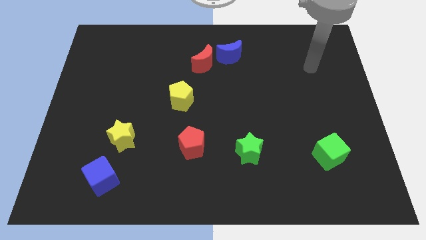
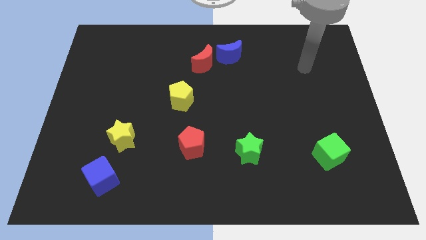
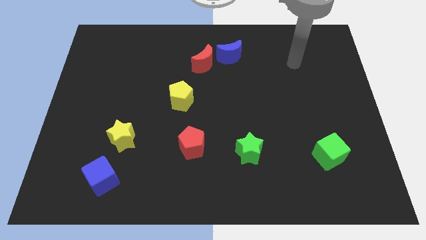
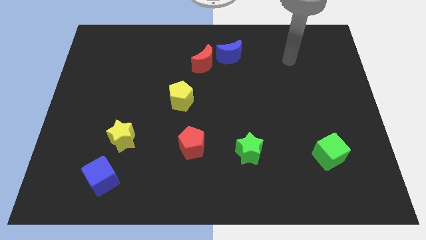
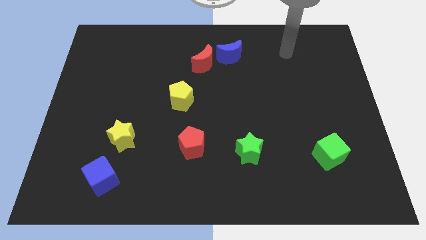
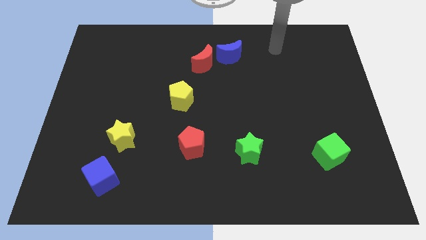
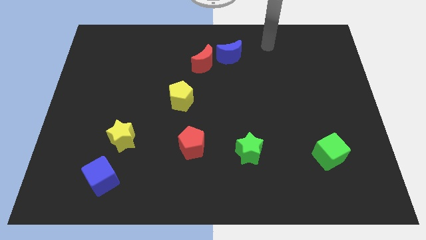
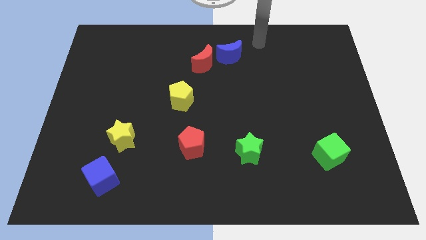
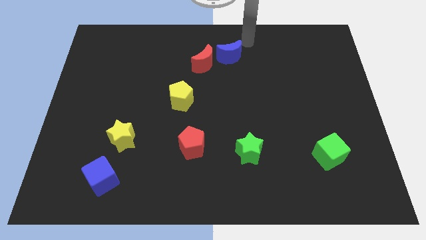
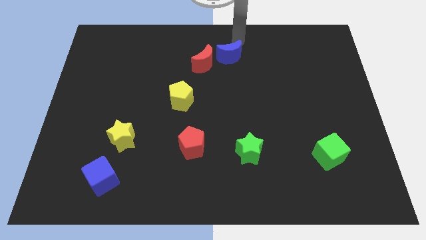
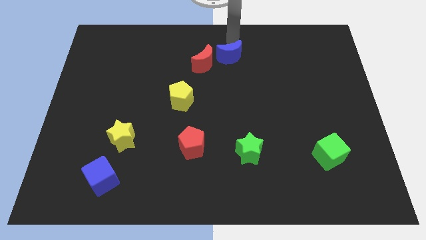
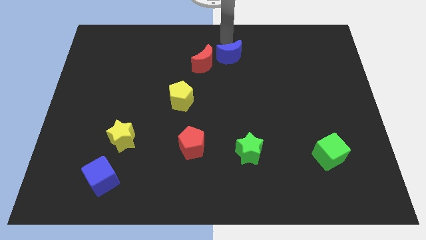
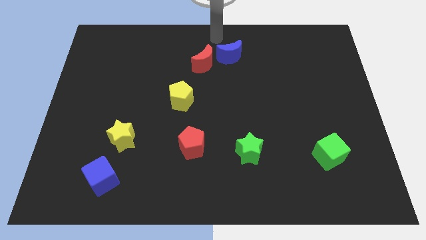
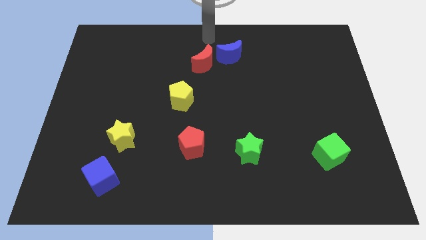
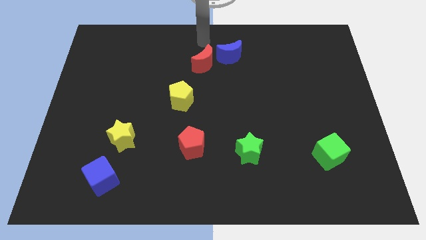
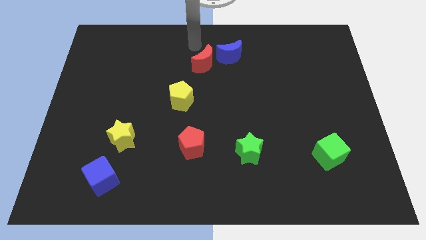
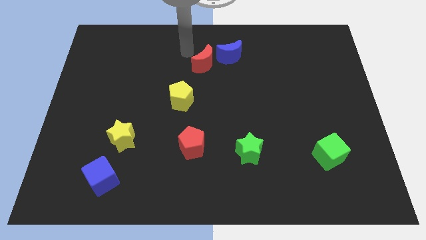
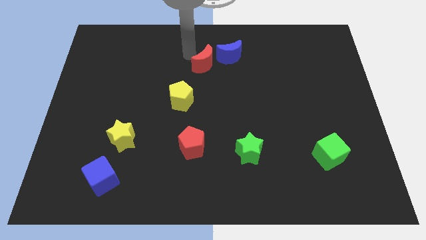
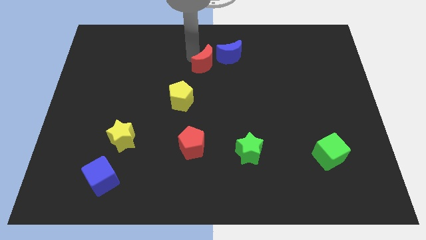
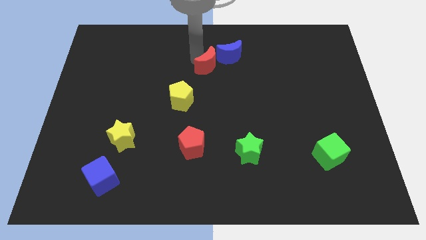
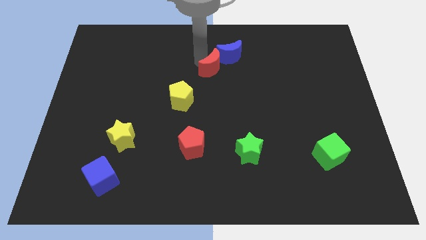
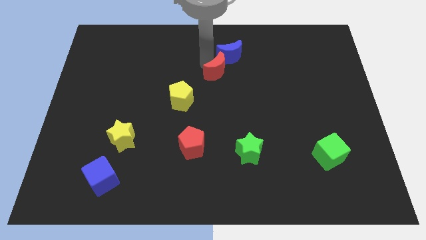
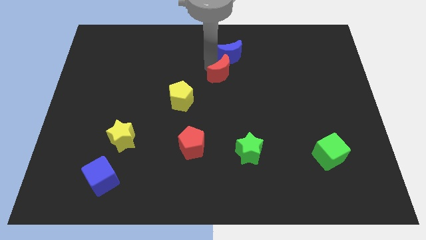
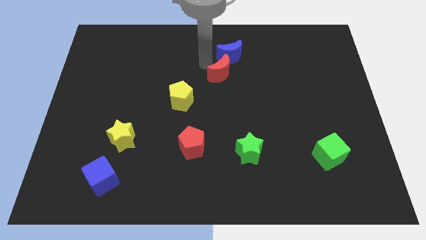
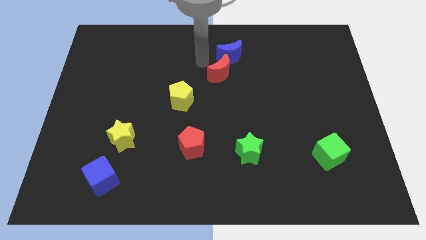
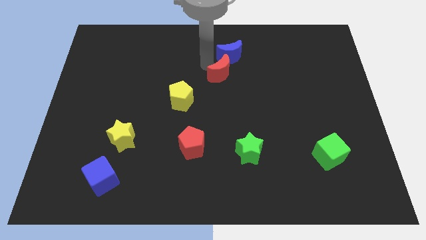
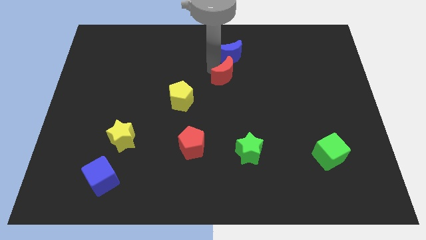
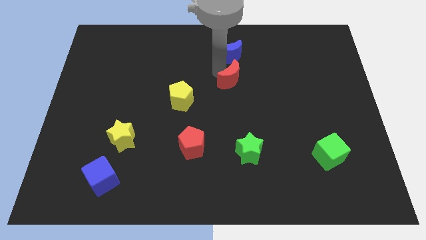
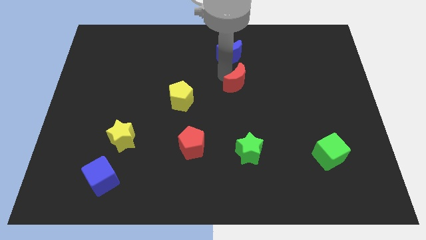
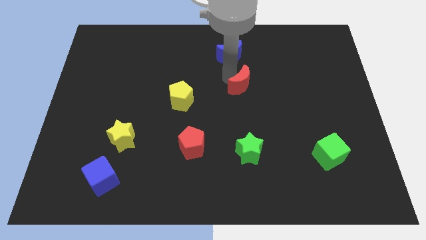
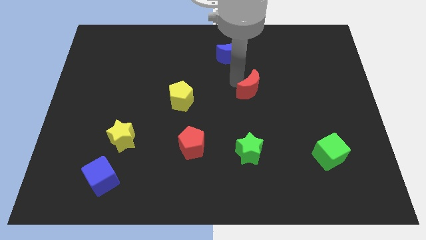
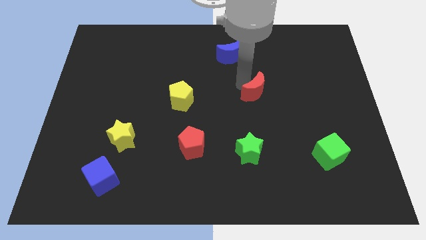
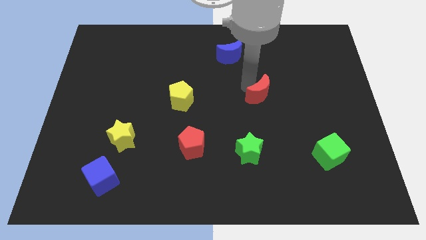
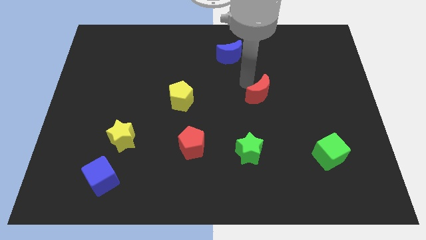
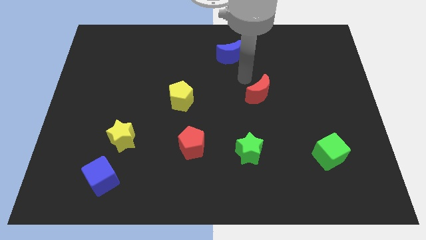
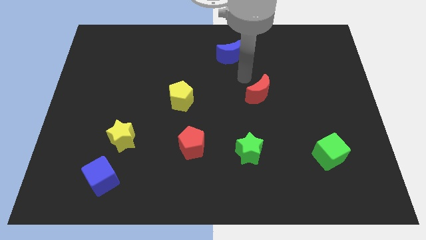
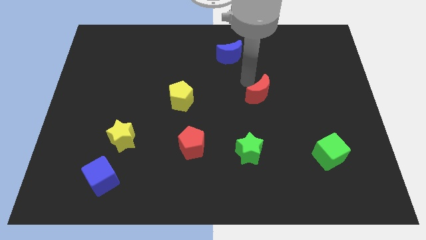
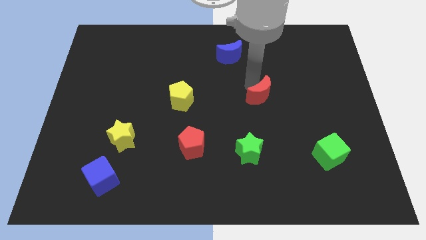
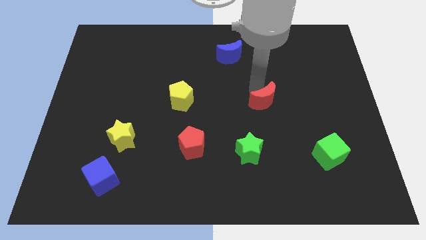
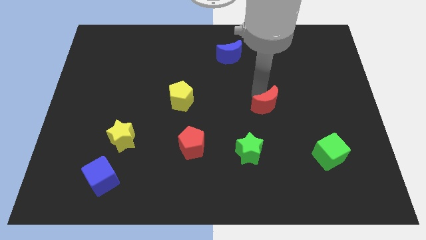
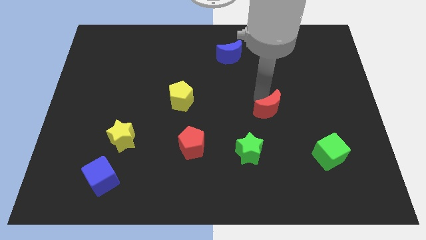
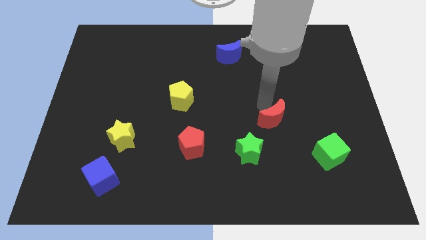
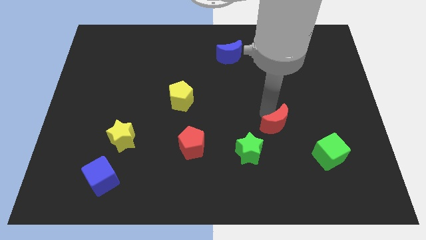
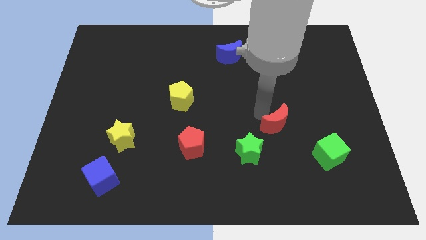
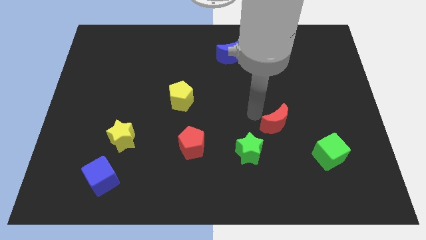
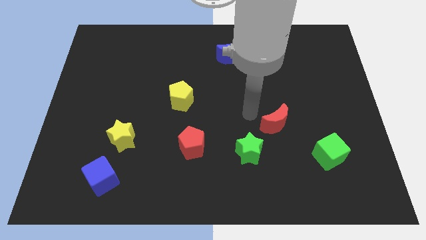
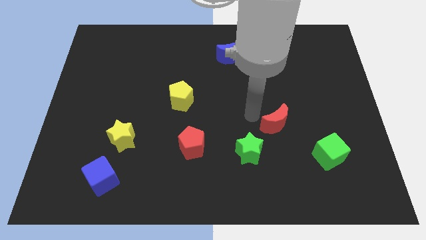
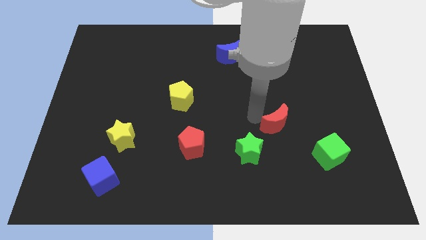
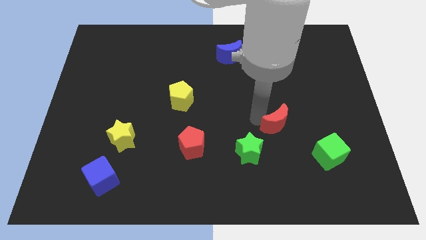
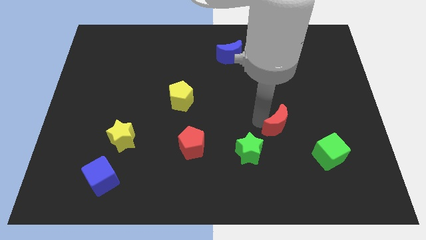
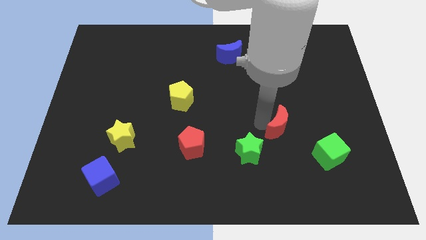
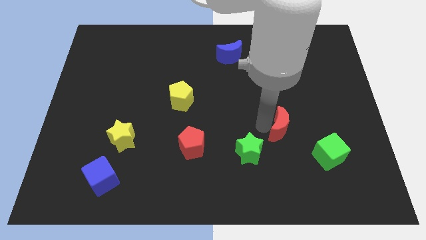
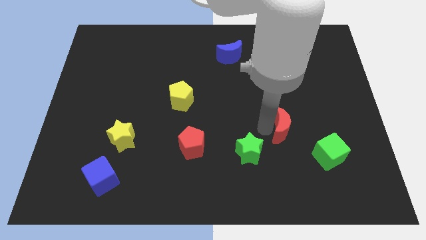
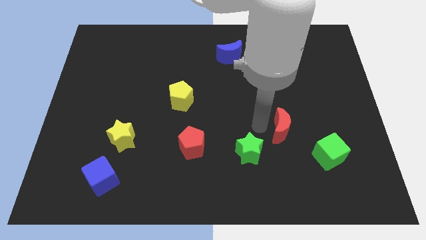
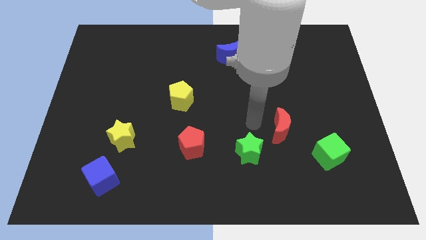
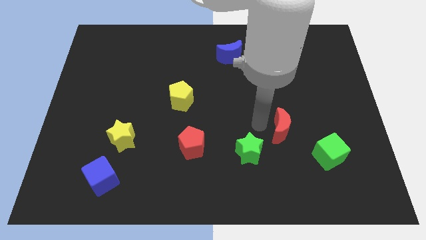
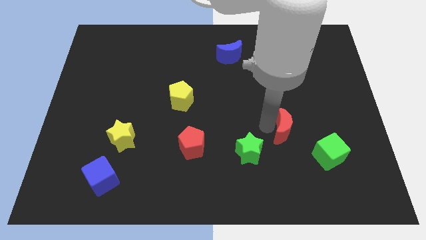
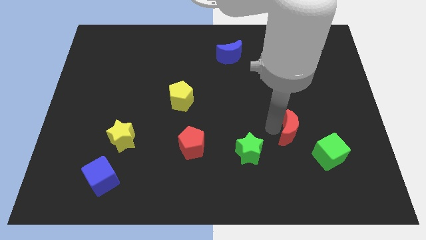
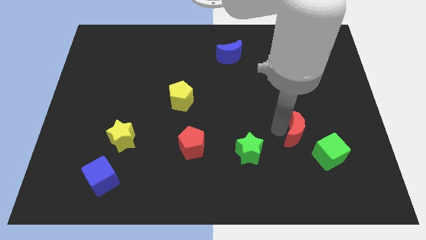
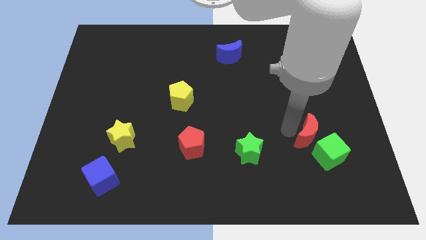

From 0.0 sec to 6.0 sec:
put the red moon to the green cube

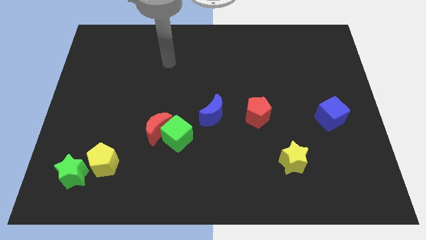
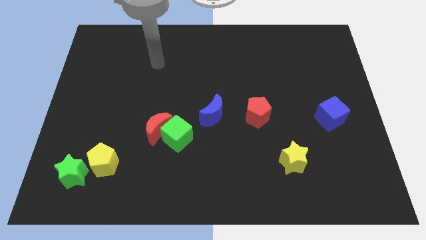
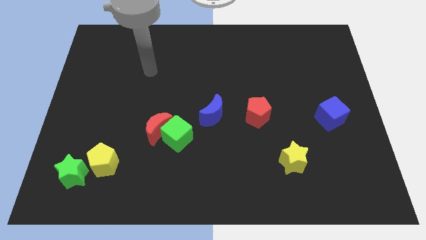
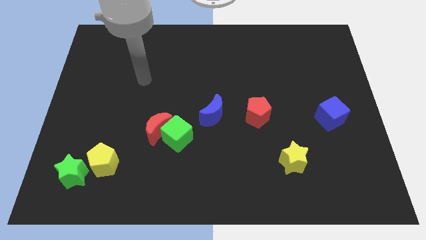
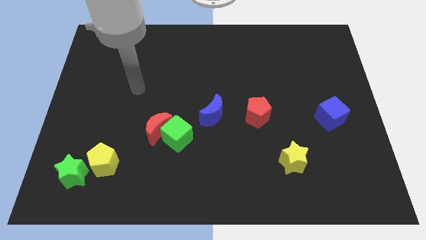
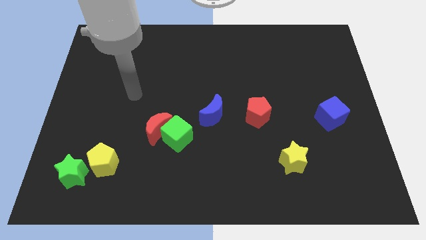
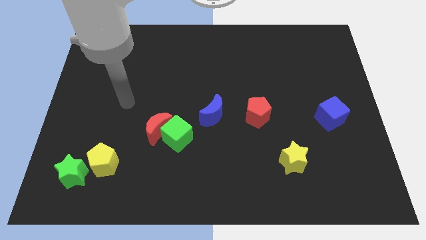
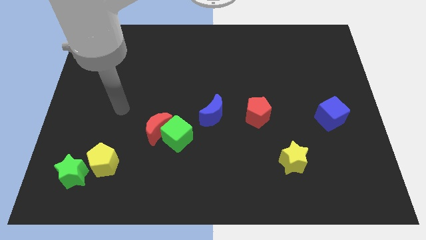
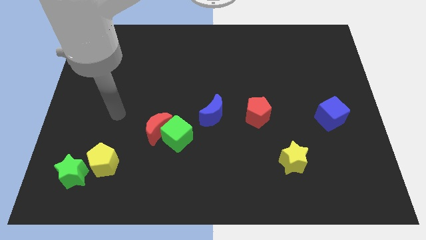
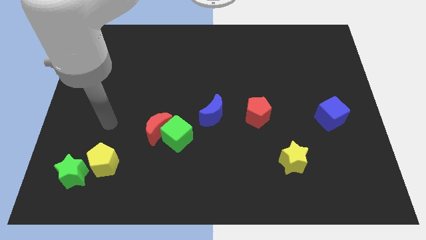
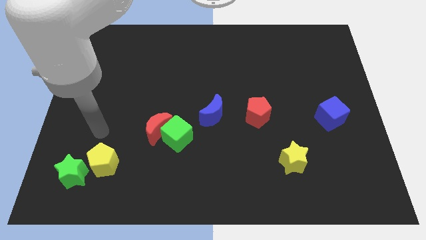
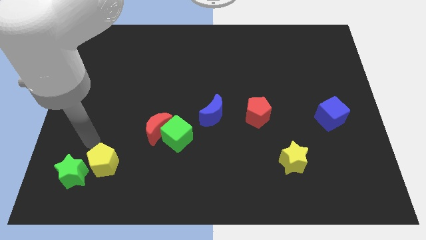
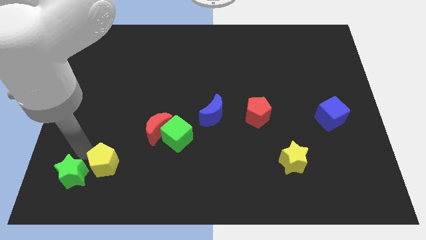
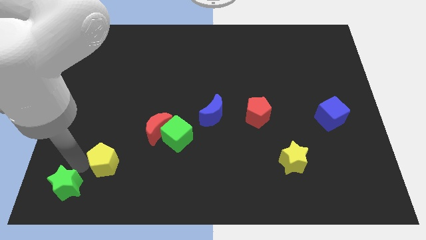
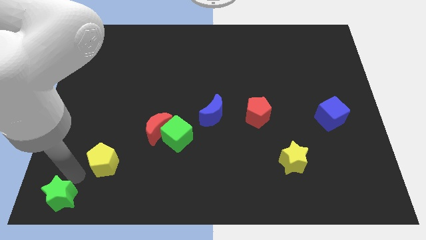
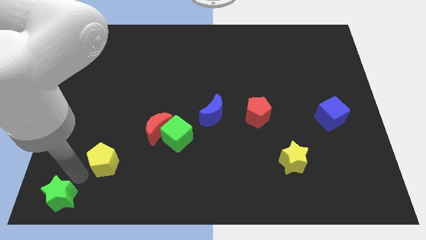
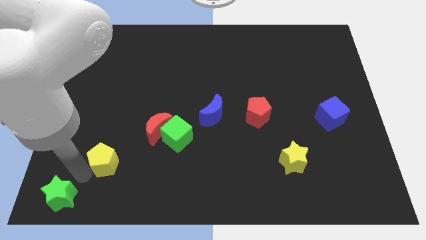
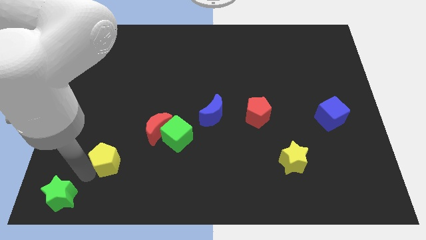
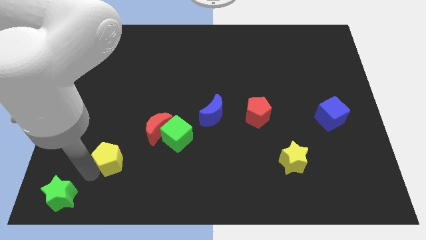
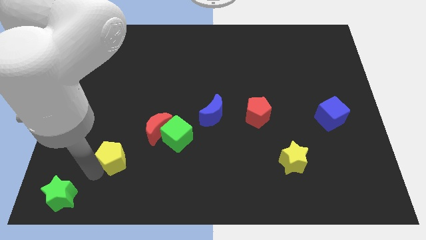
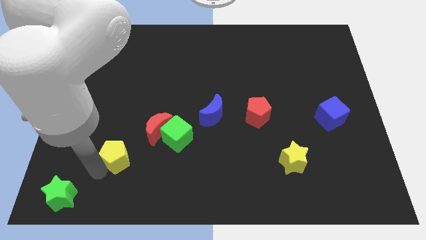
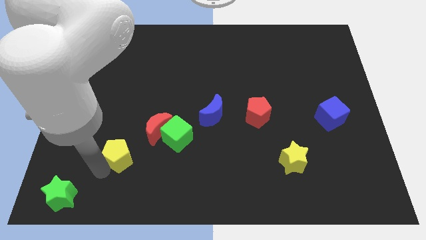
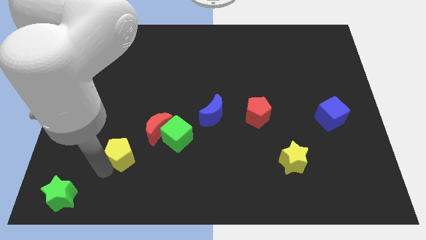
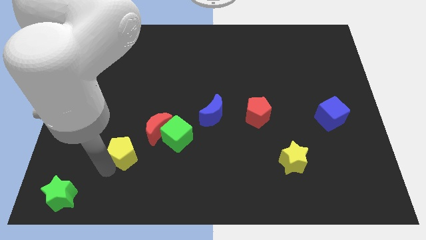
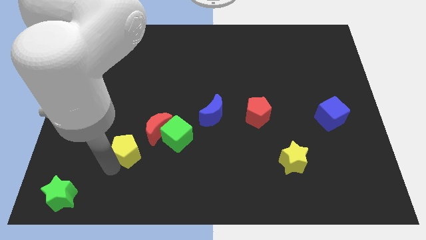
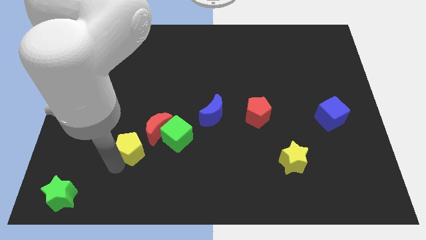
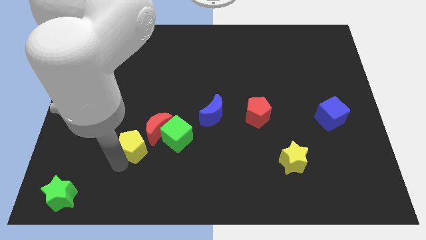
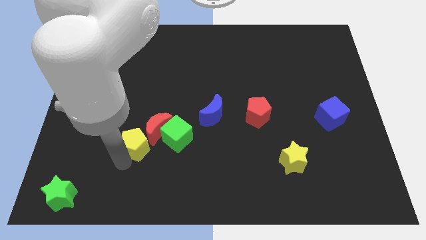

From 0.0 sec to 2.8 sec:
push the yellow pentagon close to the red moon
